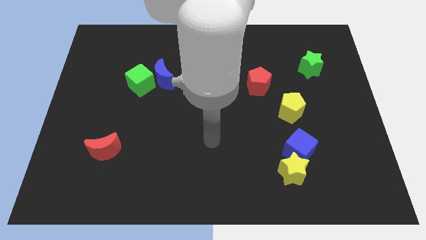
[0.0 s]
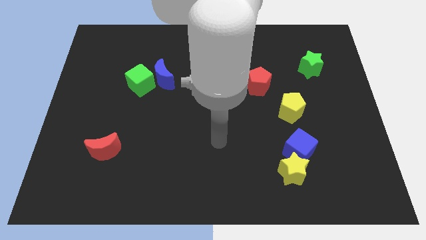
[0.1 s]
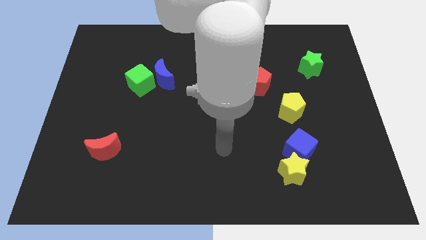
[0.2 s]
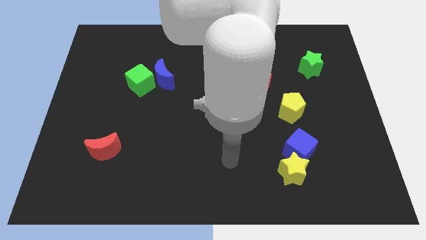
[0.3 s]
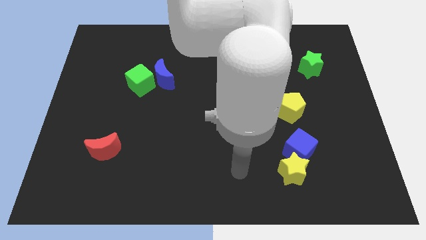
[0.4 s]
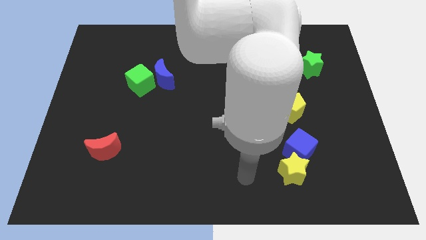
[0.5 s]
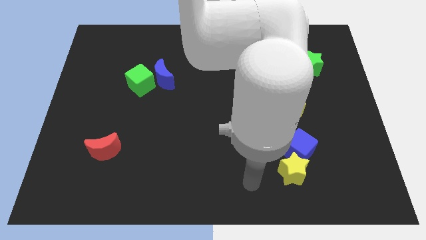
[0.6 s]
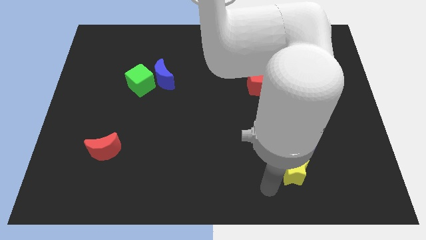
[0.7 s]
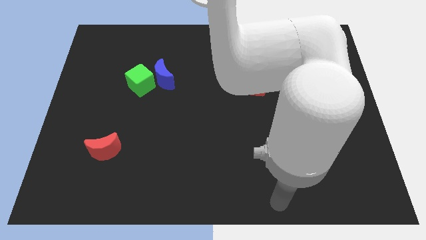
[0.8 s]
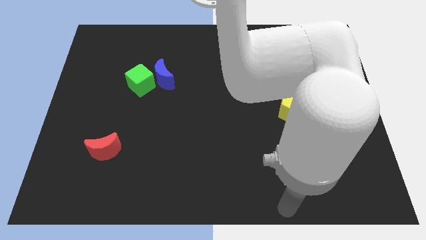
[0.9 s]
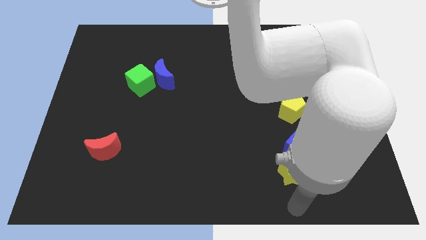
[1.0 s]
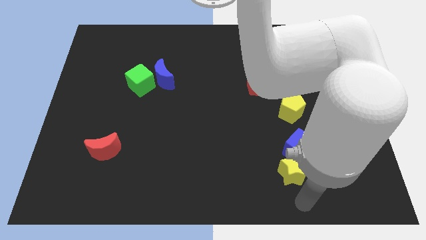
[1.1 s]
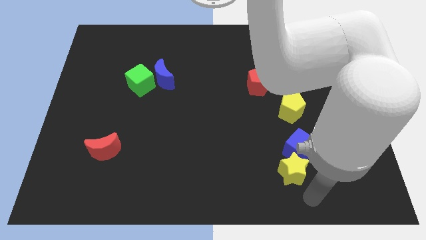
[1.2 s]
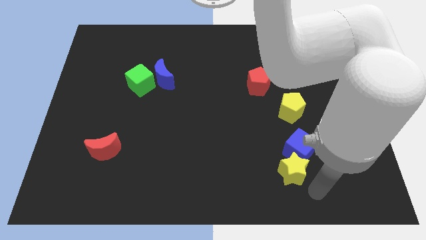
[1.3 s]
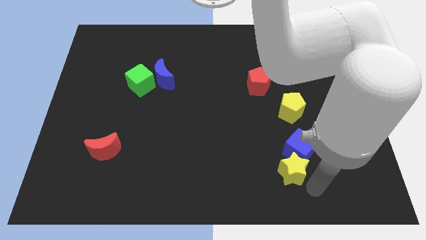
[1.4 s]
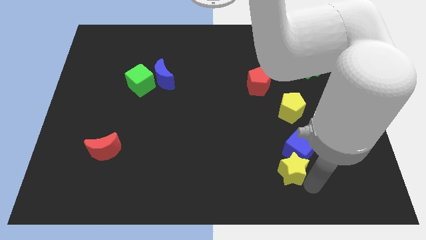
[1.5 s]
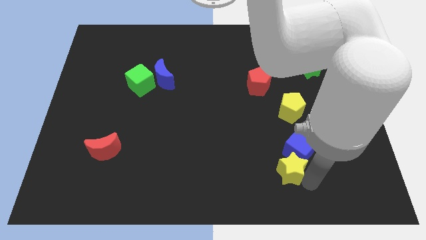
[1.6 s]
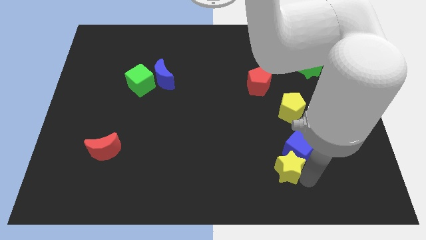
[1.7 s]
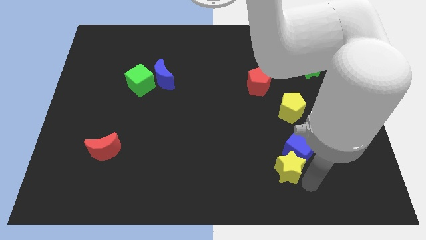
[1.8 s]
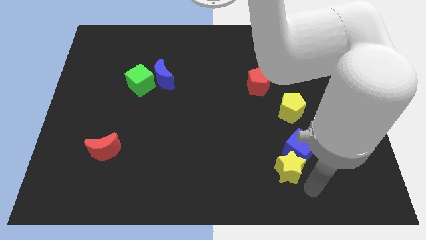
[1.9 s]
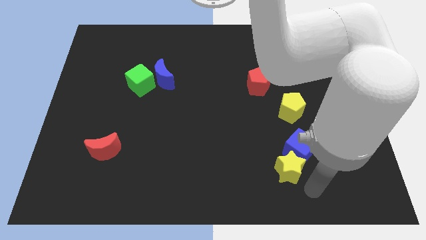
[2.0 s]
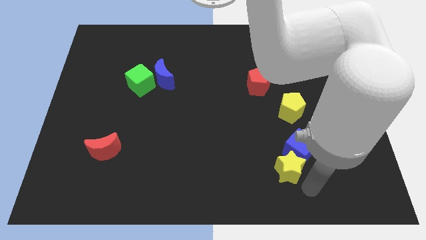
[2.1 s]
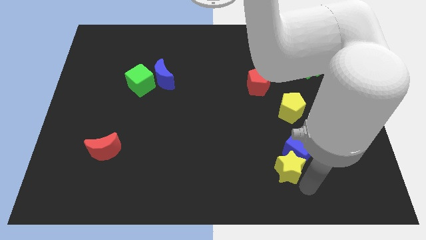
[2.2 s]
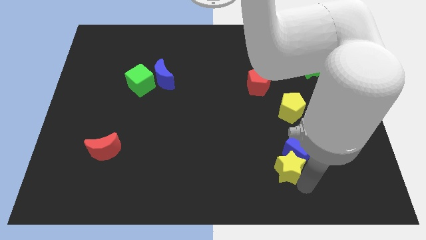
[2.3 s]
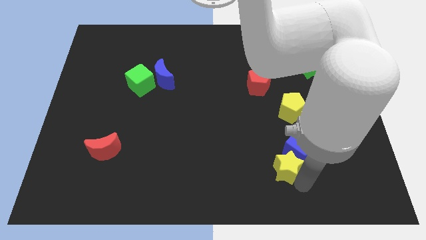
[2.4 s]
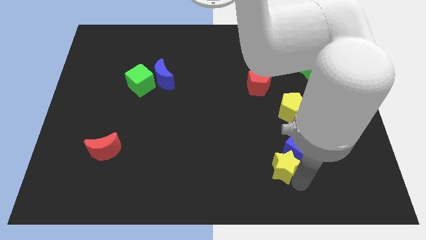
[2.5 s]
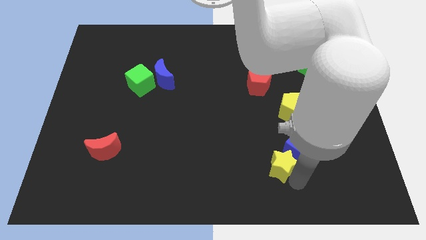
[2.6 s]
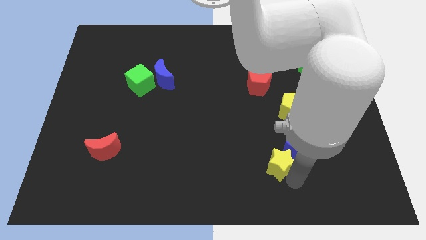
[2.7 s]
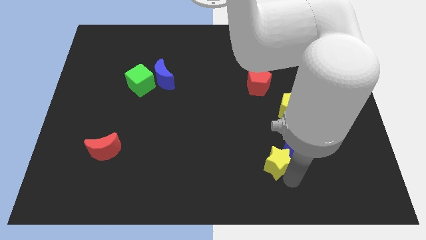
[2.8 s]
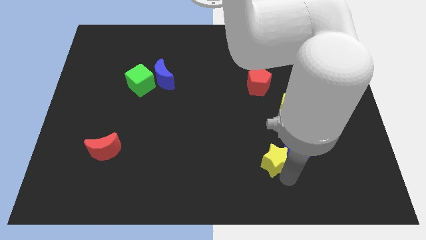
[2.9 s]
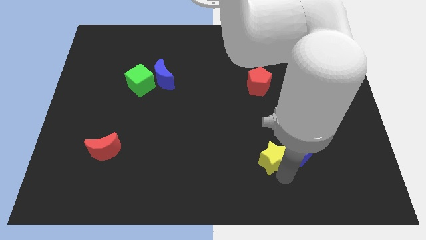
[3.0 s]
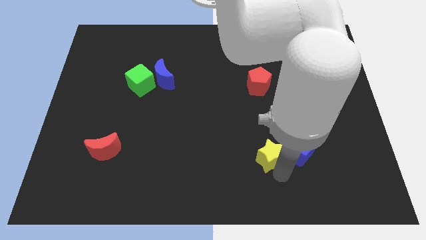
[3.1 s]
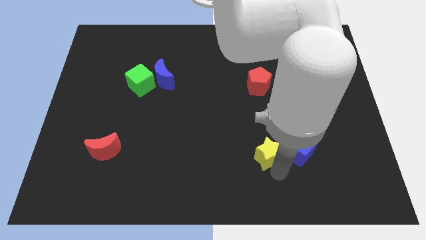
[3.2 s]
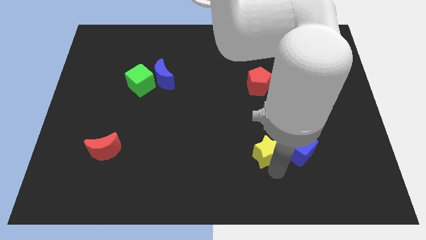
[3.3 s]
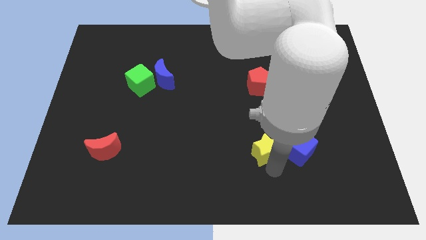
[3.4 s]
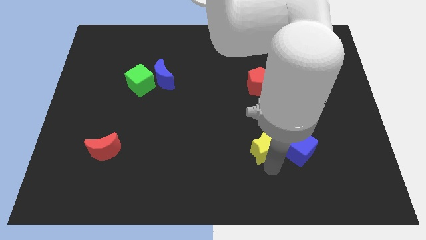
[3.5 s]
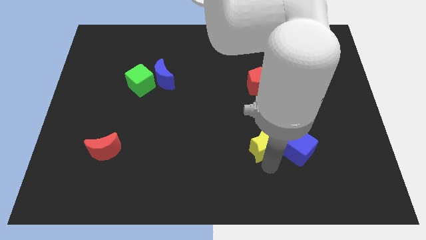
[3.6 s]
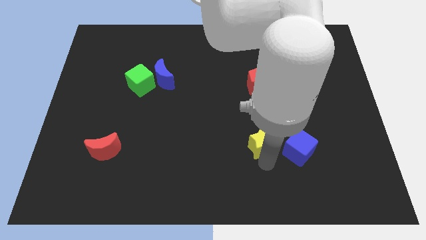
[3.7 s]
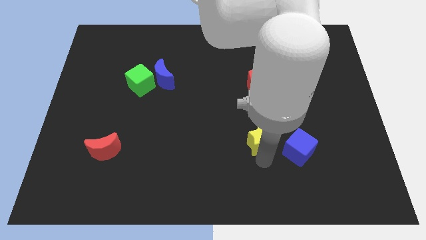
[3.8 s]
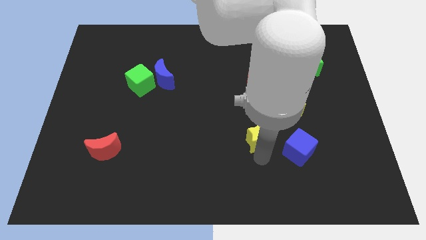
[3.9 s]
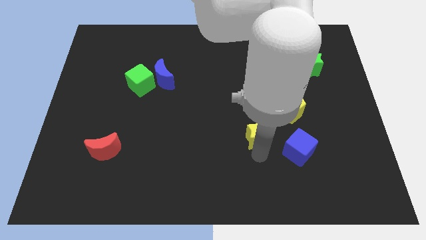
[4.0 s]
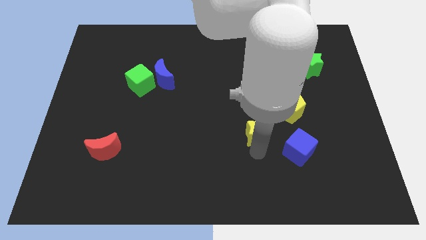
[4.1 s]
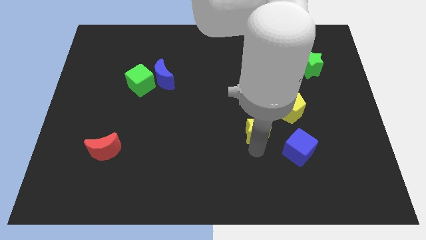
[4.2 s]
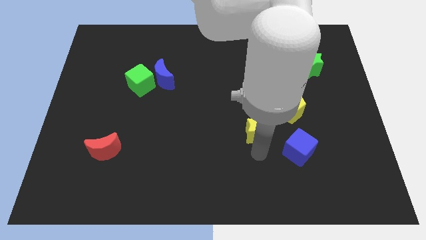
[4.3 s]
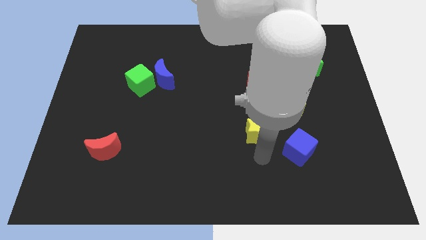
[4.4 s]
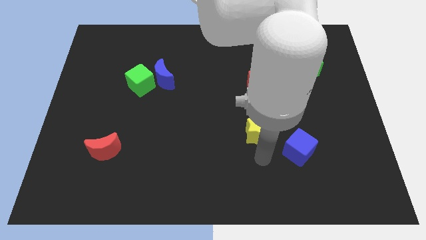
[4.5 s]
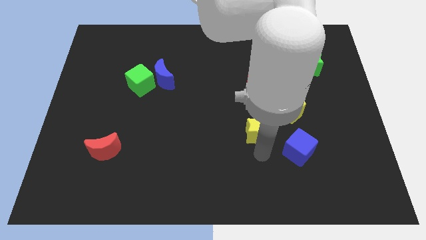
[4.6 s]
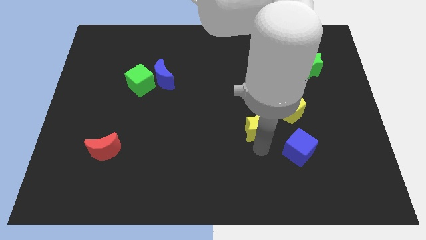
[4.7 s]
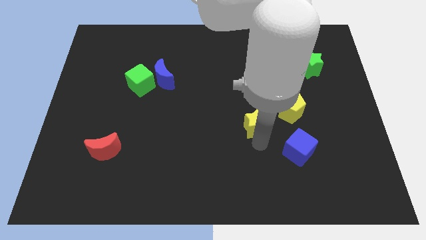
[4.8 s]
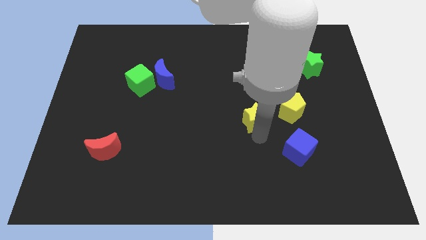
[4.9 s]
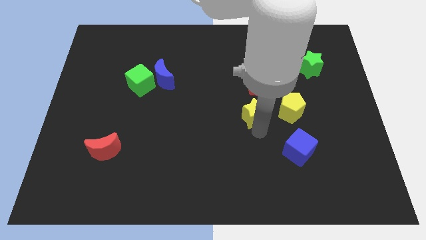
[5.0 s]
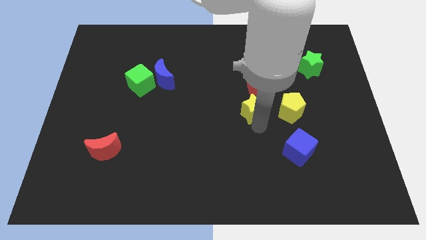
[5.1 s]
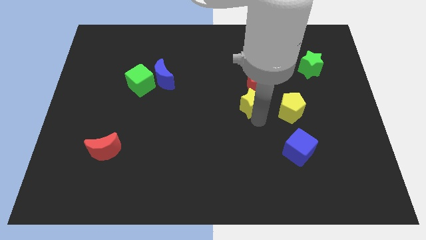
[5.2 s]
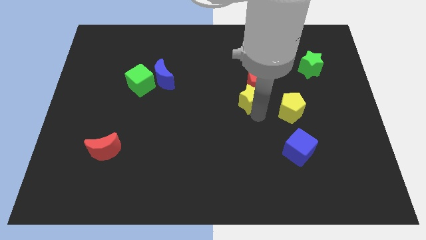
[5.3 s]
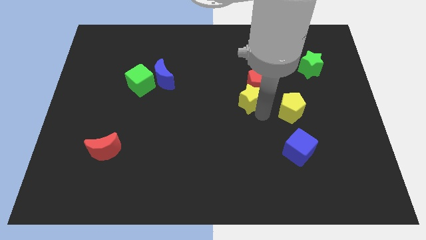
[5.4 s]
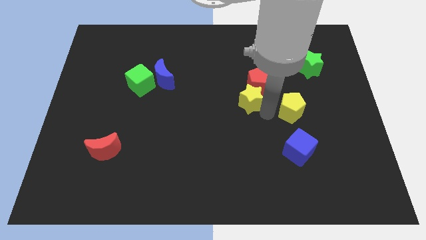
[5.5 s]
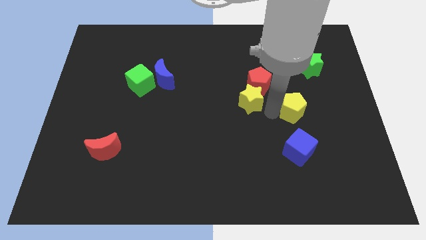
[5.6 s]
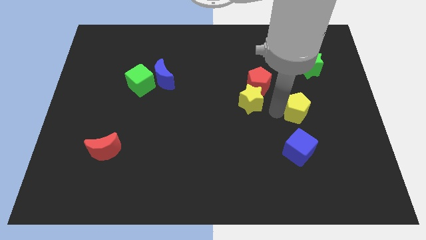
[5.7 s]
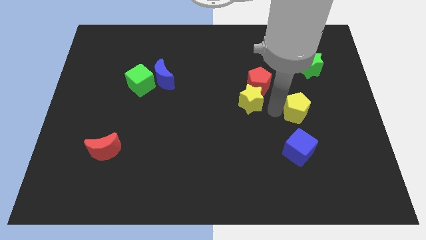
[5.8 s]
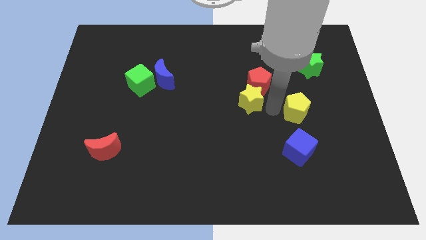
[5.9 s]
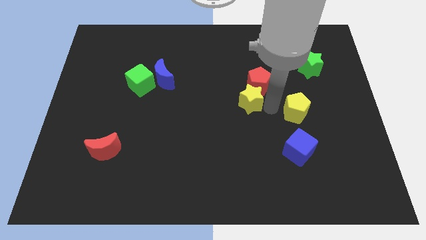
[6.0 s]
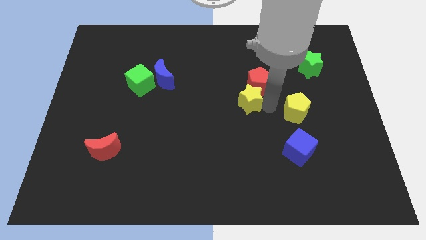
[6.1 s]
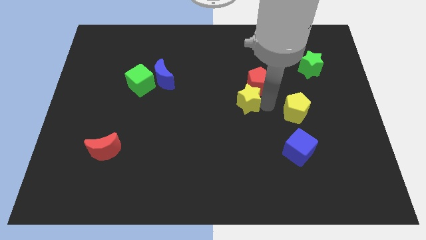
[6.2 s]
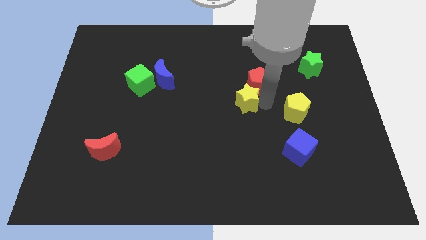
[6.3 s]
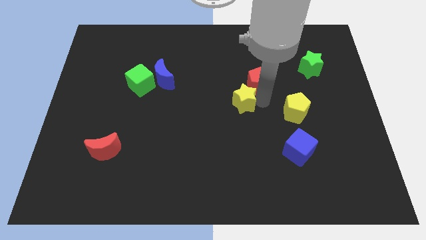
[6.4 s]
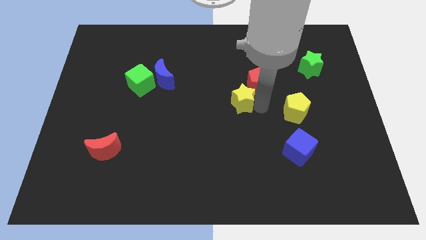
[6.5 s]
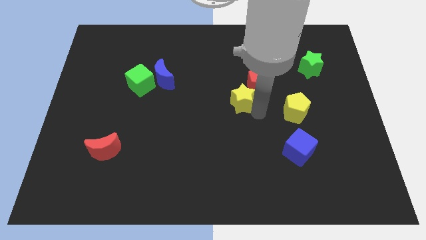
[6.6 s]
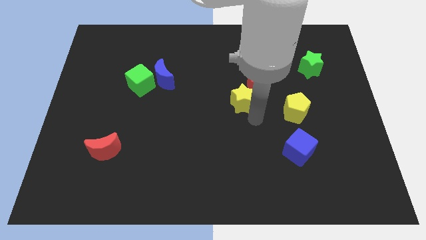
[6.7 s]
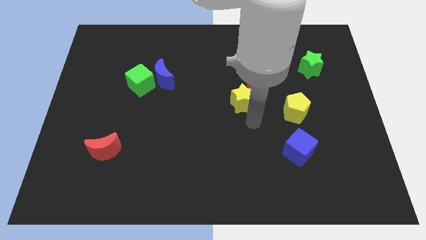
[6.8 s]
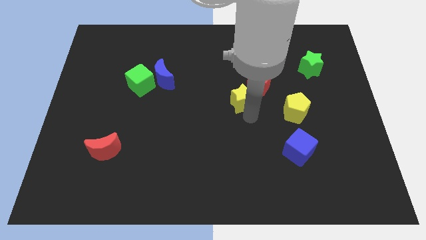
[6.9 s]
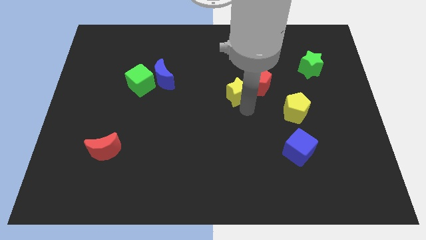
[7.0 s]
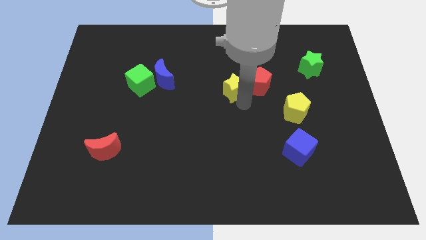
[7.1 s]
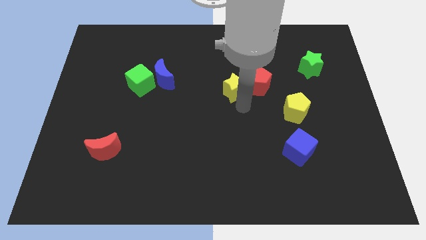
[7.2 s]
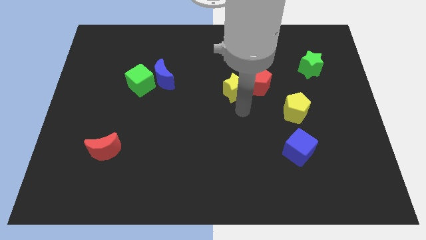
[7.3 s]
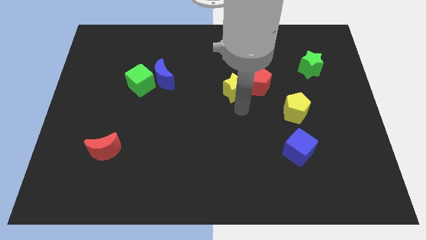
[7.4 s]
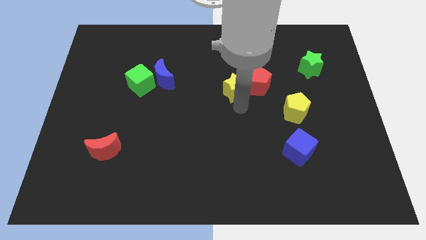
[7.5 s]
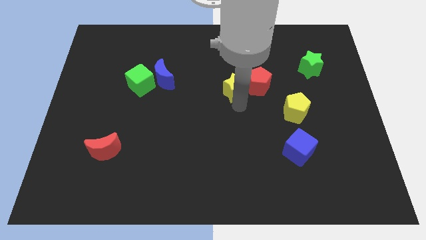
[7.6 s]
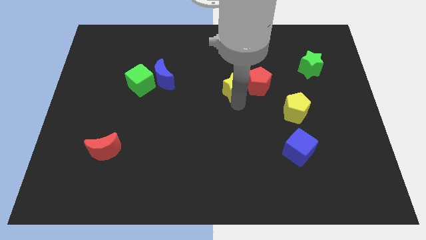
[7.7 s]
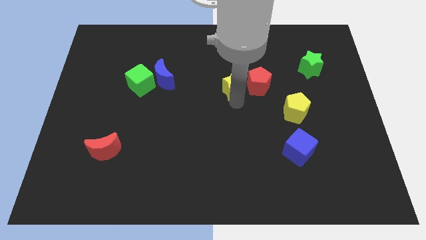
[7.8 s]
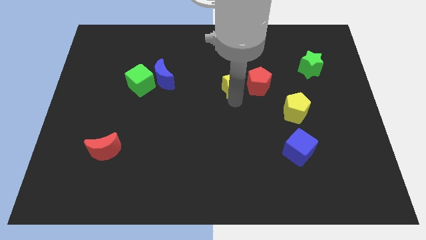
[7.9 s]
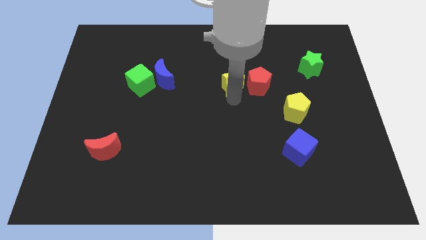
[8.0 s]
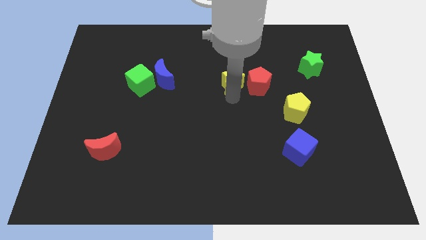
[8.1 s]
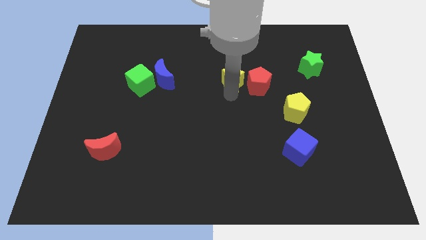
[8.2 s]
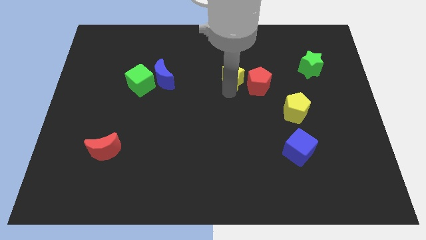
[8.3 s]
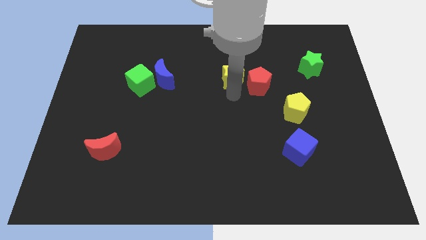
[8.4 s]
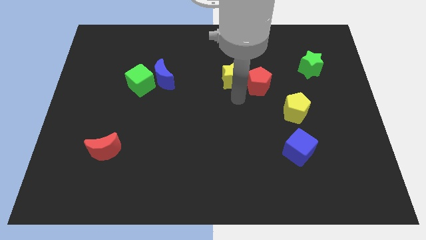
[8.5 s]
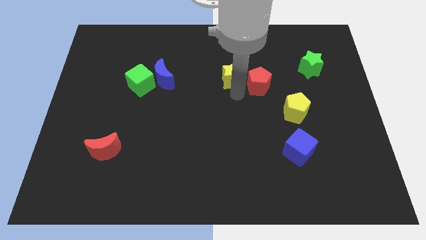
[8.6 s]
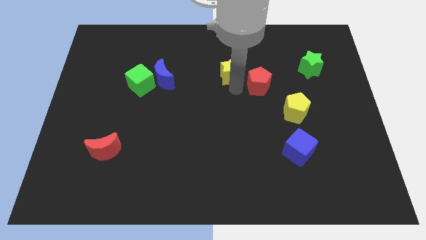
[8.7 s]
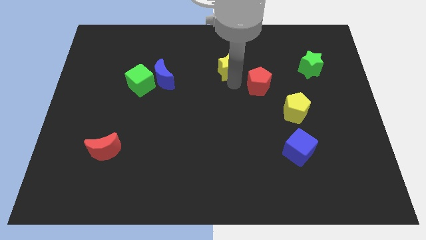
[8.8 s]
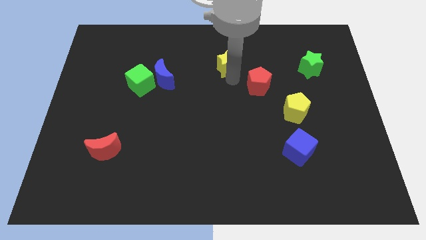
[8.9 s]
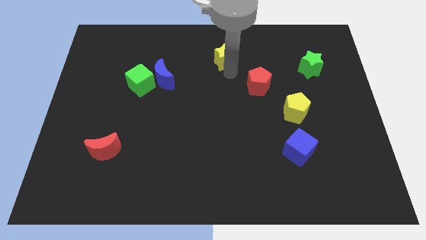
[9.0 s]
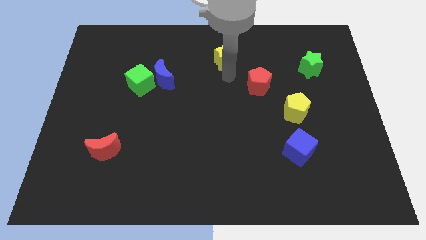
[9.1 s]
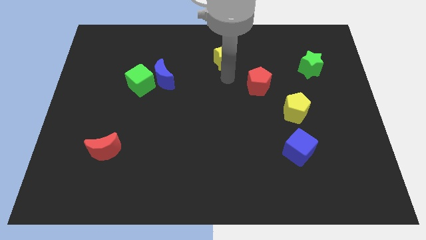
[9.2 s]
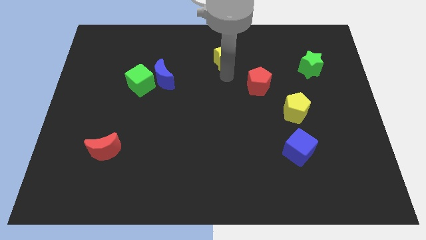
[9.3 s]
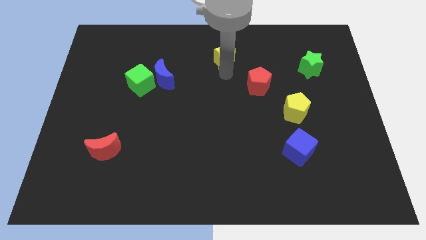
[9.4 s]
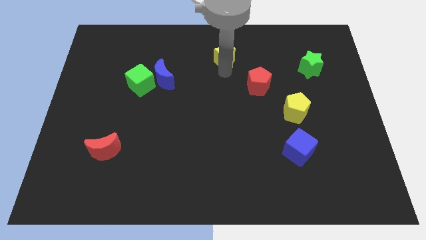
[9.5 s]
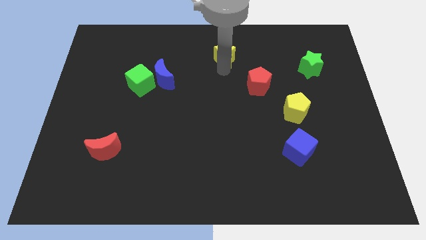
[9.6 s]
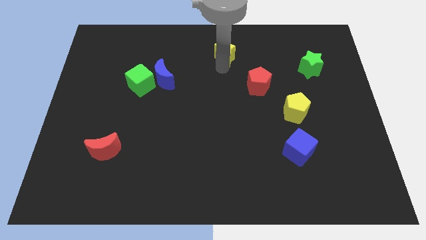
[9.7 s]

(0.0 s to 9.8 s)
put the yellow star to the top side
